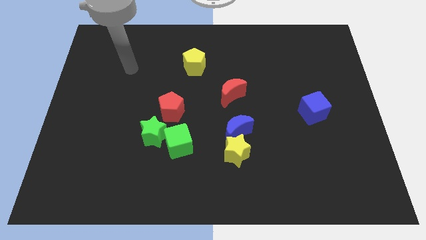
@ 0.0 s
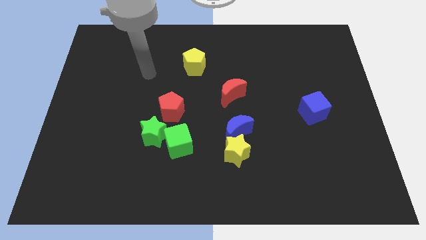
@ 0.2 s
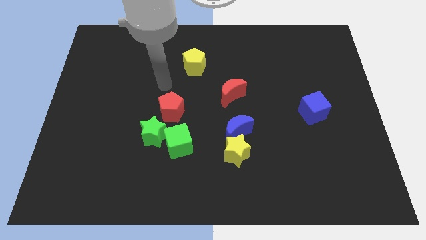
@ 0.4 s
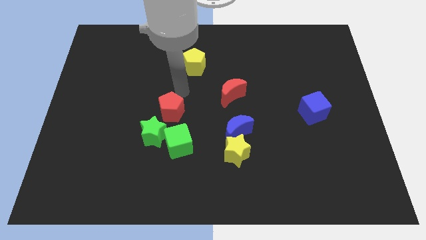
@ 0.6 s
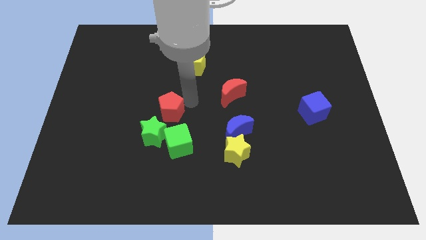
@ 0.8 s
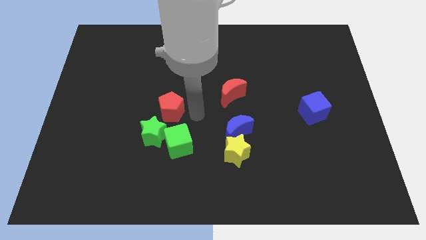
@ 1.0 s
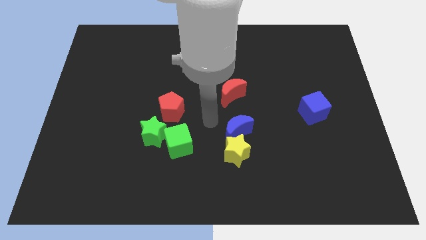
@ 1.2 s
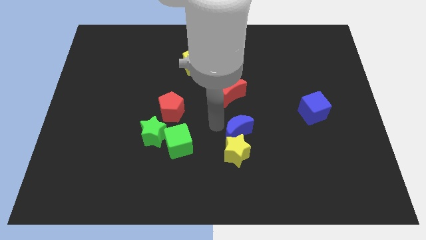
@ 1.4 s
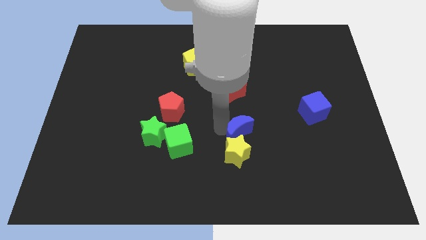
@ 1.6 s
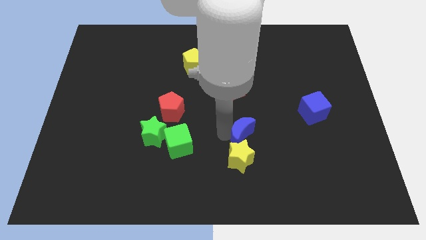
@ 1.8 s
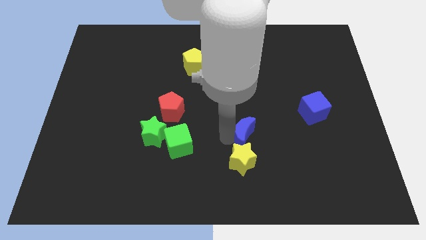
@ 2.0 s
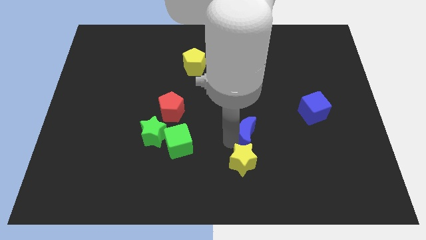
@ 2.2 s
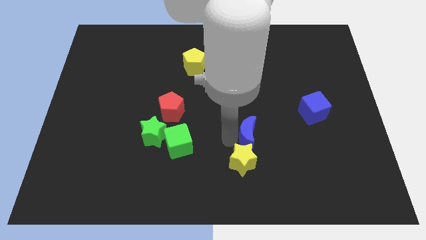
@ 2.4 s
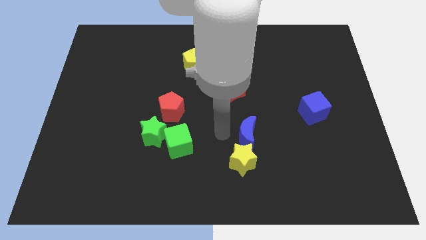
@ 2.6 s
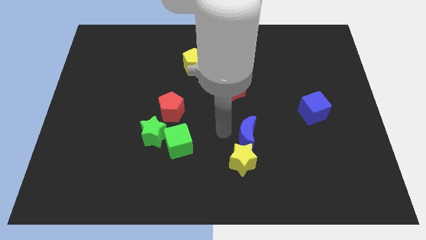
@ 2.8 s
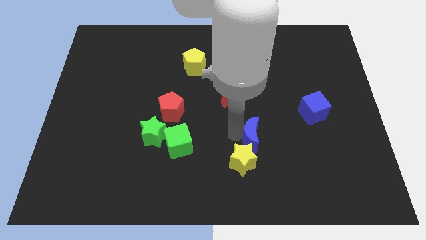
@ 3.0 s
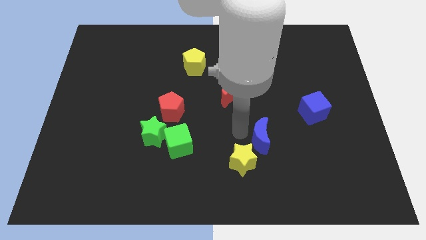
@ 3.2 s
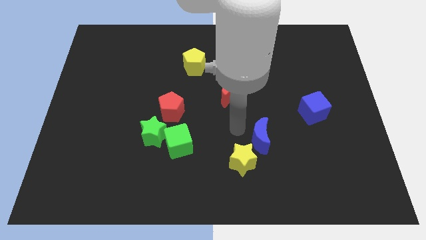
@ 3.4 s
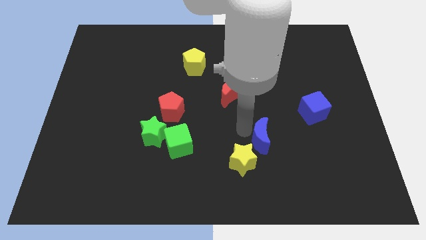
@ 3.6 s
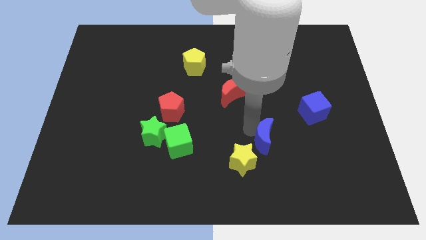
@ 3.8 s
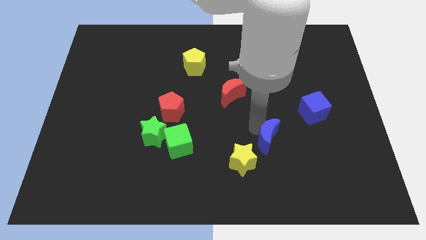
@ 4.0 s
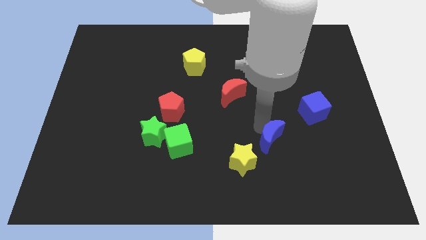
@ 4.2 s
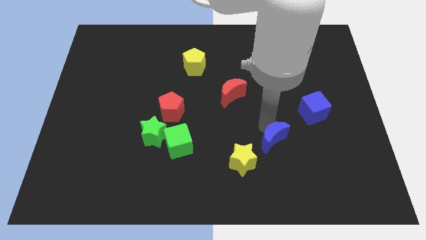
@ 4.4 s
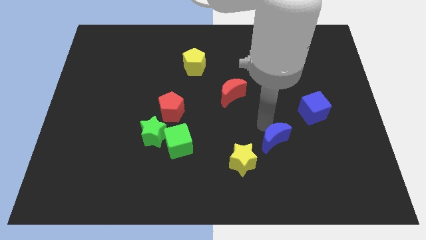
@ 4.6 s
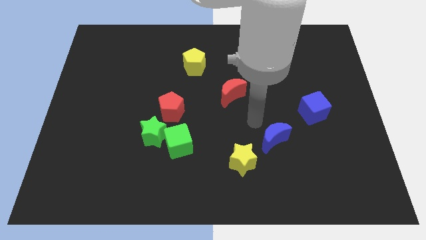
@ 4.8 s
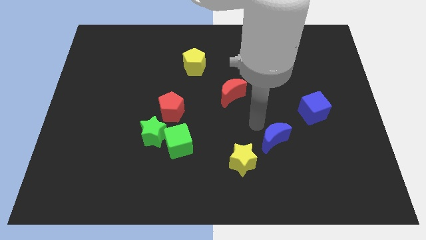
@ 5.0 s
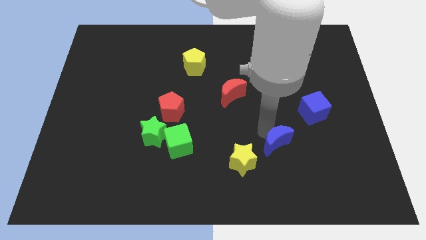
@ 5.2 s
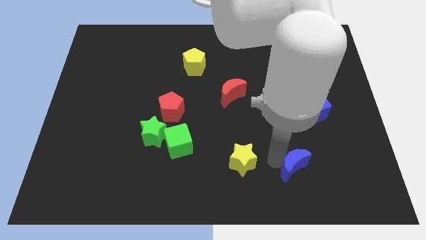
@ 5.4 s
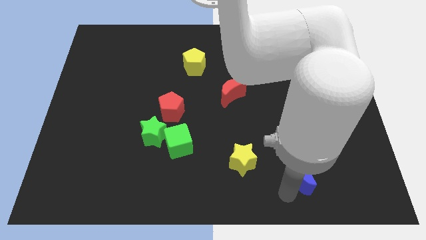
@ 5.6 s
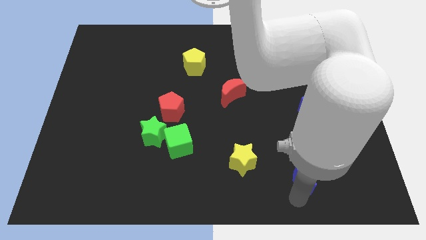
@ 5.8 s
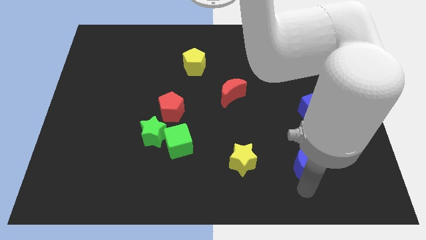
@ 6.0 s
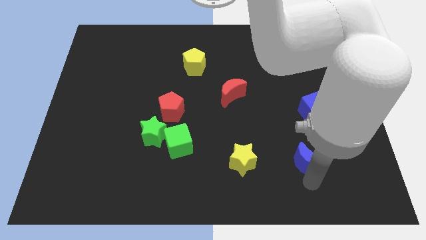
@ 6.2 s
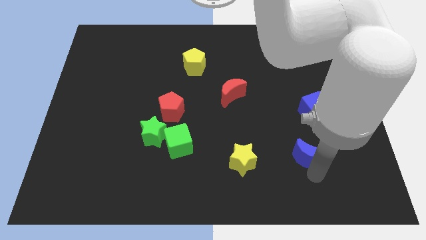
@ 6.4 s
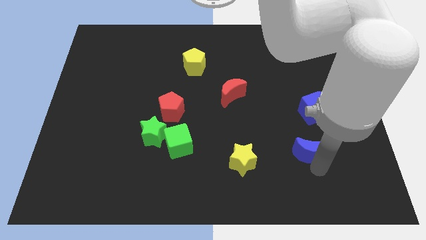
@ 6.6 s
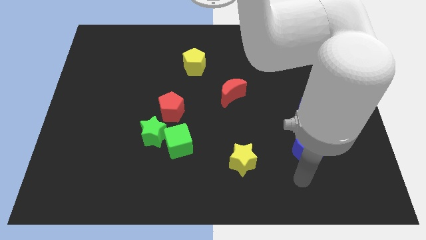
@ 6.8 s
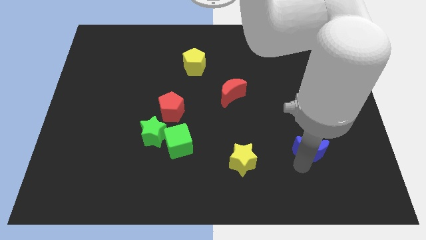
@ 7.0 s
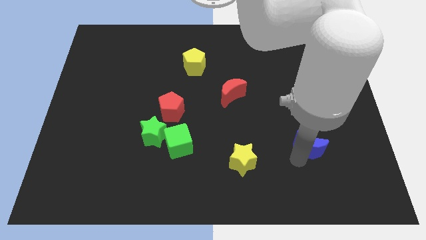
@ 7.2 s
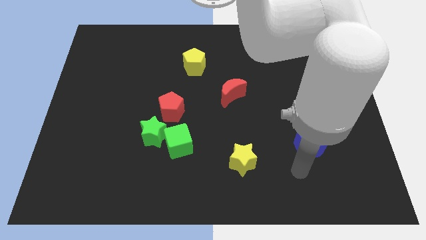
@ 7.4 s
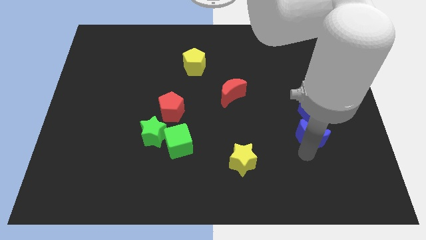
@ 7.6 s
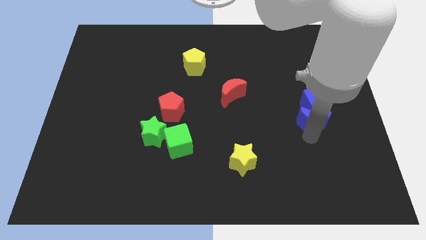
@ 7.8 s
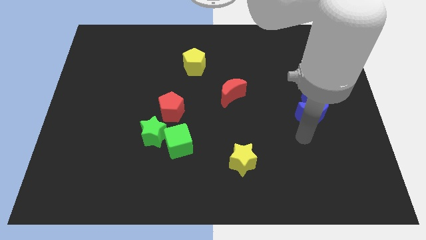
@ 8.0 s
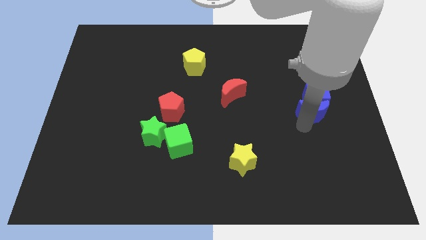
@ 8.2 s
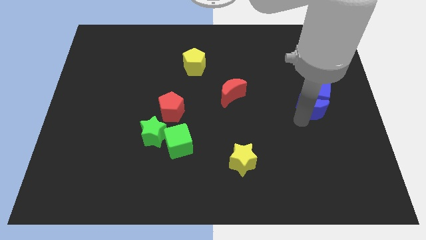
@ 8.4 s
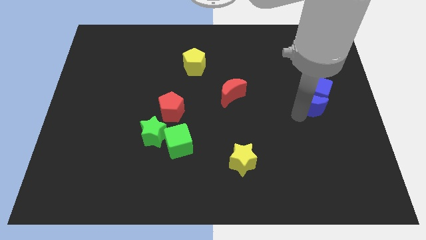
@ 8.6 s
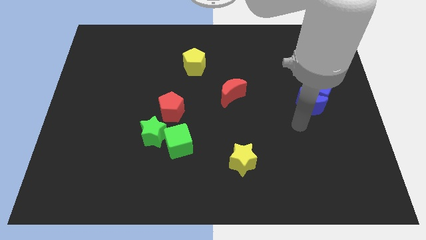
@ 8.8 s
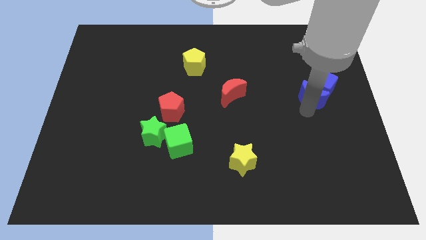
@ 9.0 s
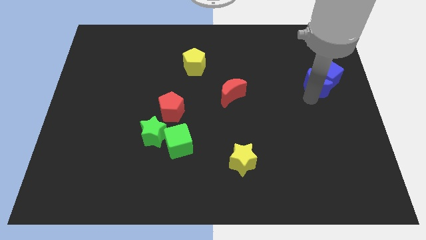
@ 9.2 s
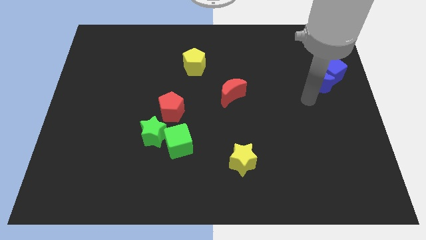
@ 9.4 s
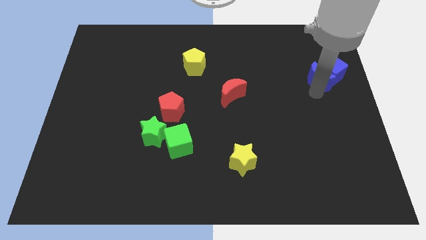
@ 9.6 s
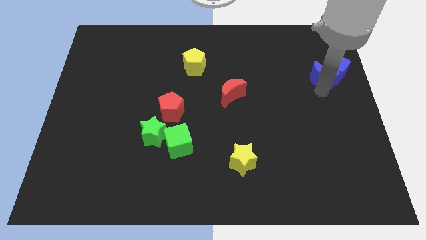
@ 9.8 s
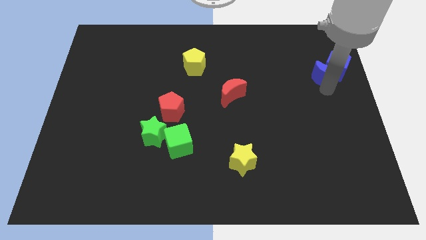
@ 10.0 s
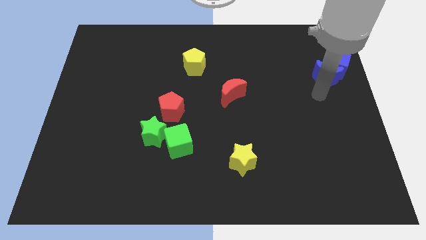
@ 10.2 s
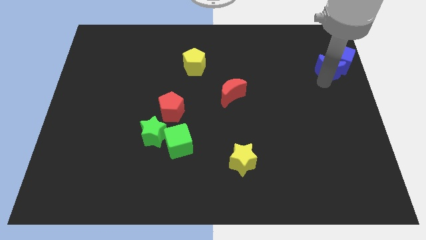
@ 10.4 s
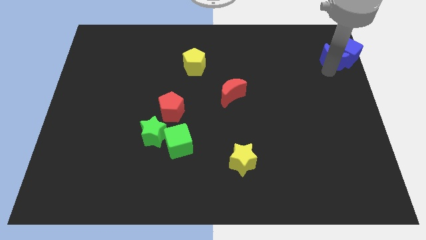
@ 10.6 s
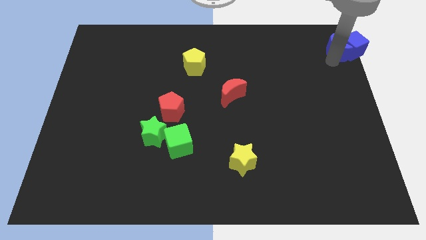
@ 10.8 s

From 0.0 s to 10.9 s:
move the blue moon to the top right corner

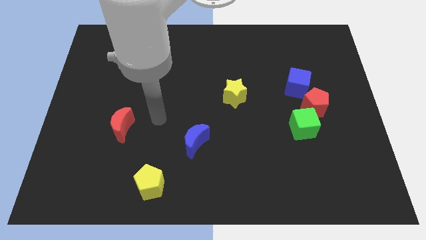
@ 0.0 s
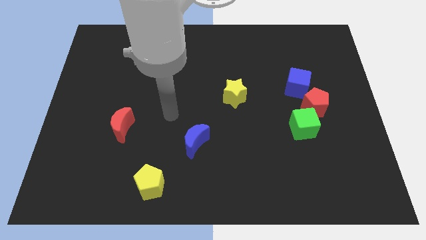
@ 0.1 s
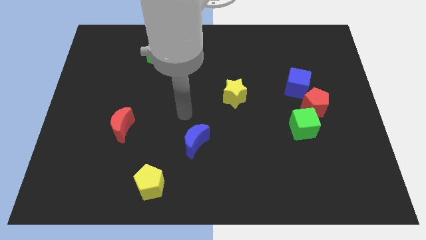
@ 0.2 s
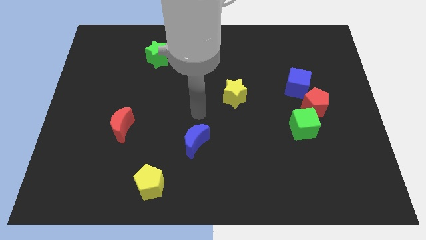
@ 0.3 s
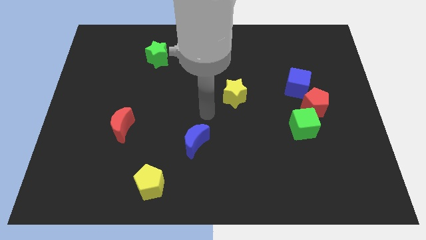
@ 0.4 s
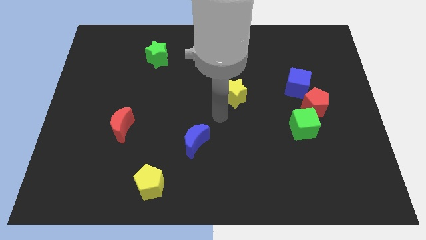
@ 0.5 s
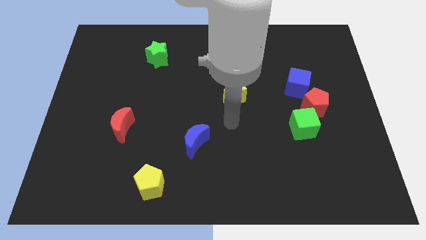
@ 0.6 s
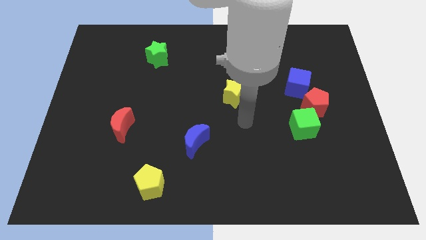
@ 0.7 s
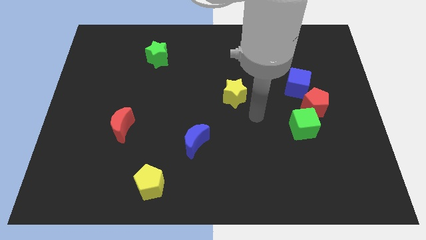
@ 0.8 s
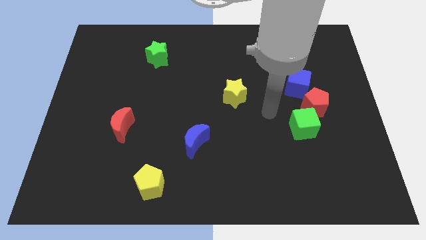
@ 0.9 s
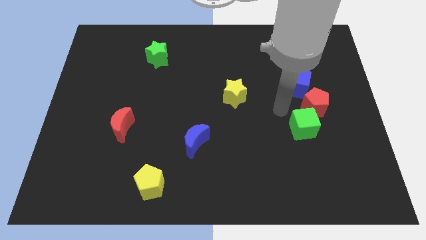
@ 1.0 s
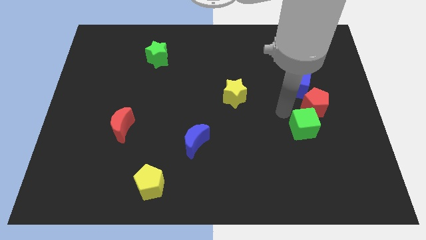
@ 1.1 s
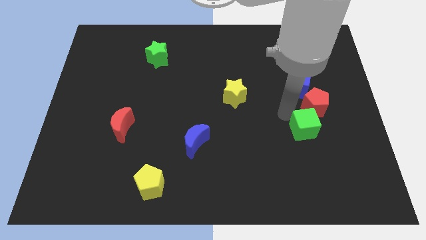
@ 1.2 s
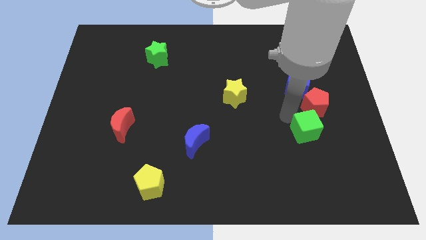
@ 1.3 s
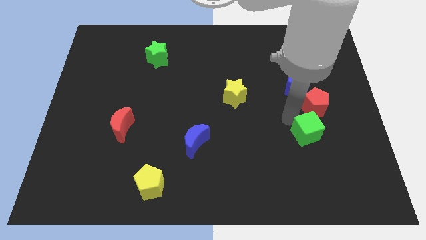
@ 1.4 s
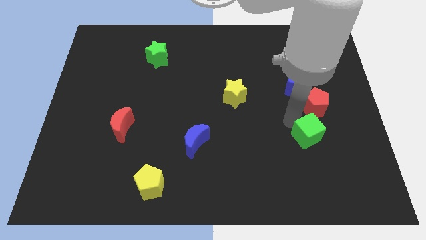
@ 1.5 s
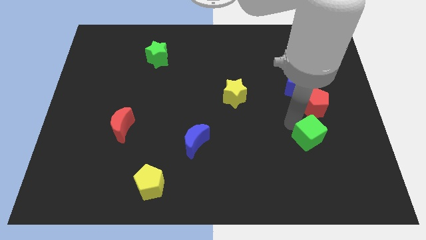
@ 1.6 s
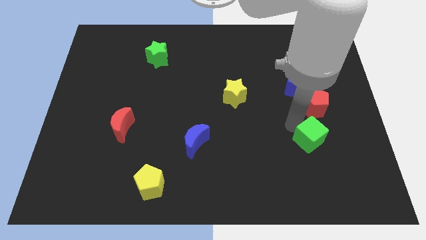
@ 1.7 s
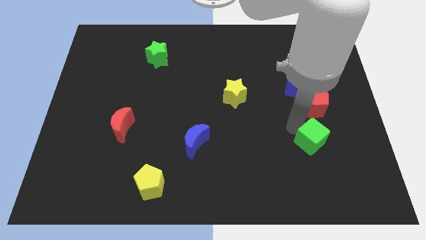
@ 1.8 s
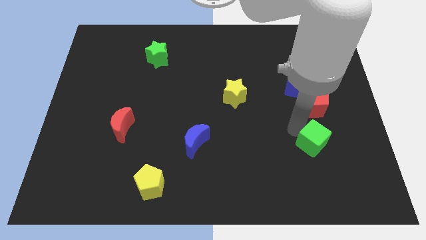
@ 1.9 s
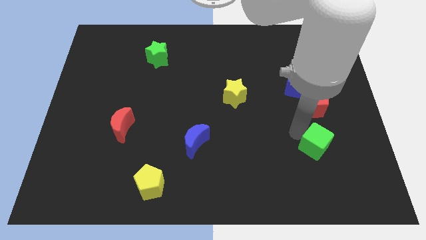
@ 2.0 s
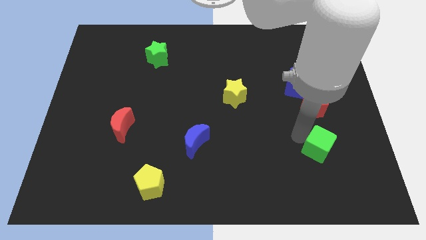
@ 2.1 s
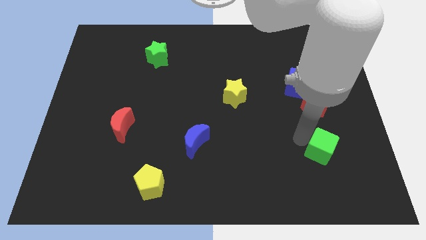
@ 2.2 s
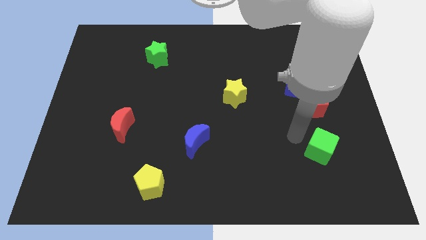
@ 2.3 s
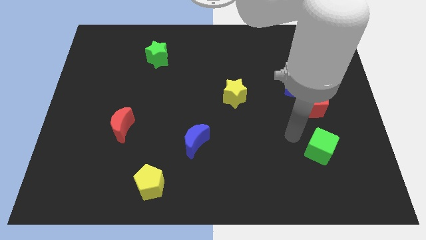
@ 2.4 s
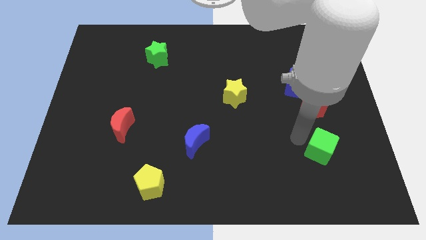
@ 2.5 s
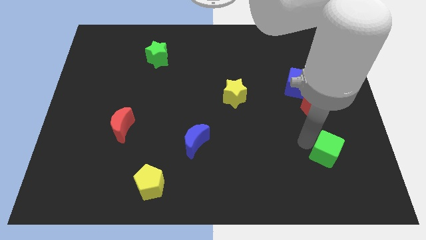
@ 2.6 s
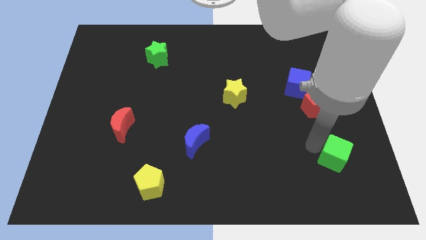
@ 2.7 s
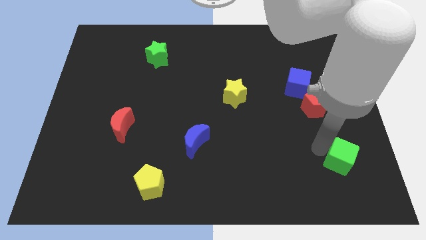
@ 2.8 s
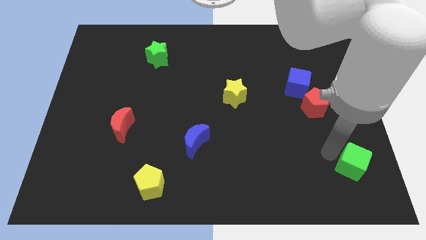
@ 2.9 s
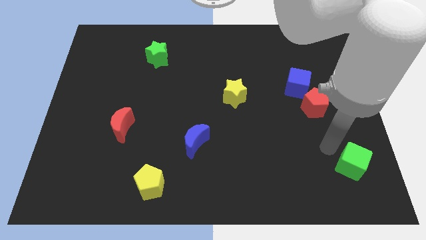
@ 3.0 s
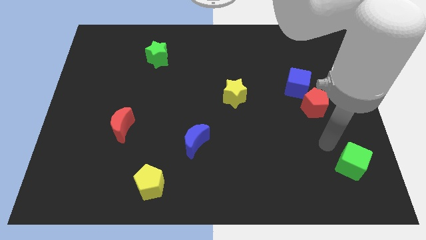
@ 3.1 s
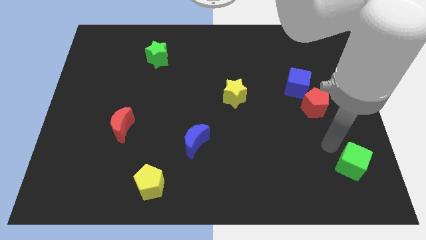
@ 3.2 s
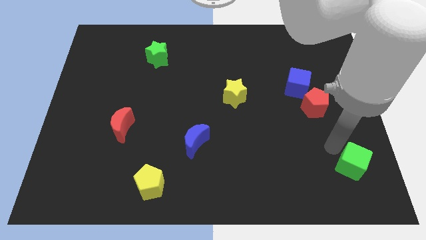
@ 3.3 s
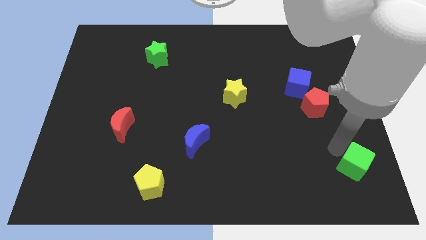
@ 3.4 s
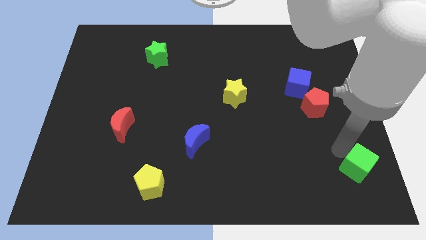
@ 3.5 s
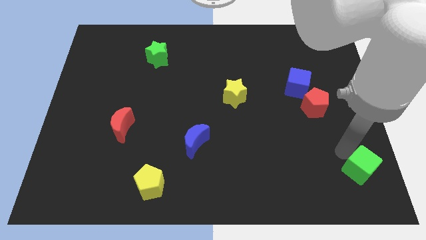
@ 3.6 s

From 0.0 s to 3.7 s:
move the green cube to the lower right corner
